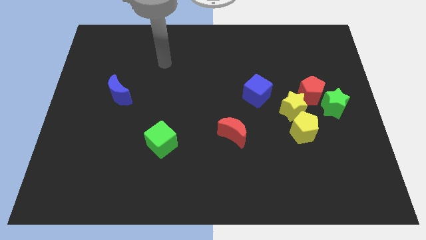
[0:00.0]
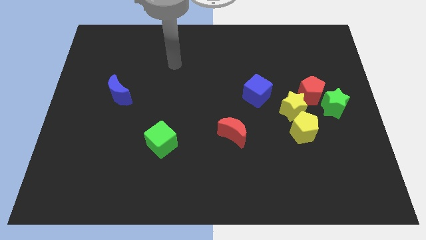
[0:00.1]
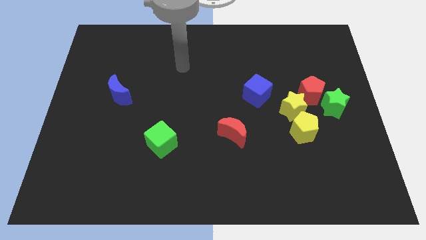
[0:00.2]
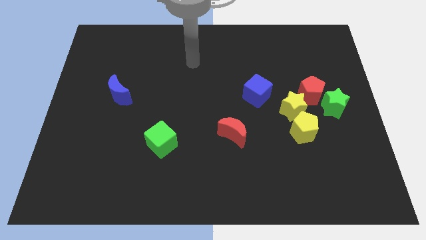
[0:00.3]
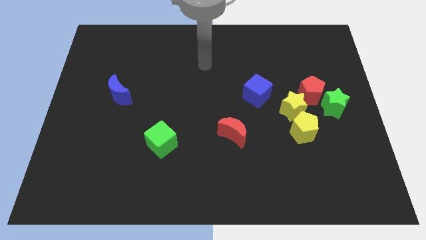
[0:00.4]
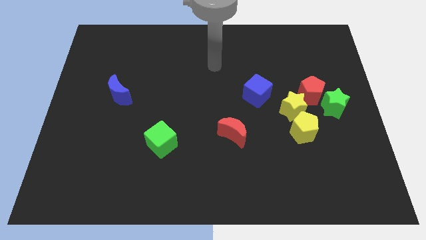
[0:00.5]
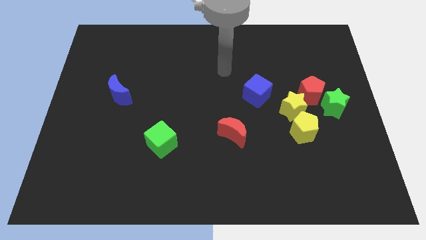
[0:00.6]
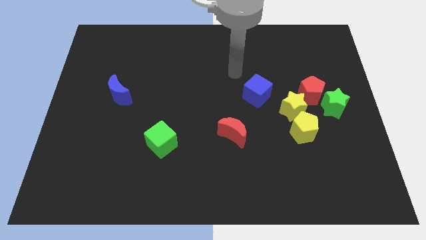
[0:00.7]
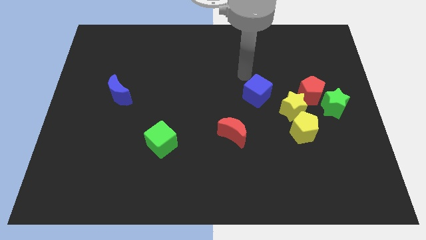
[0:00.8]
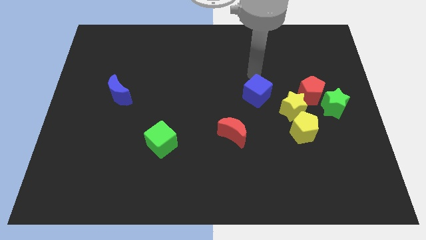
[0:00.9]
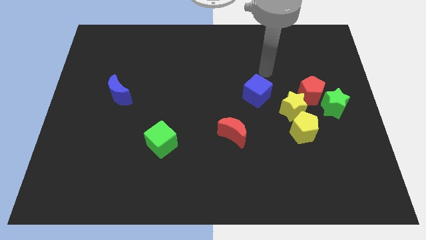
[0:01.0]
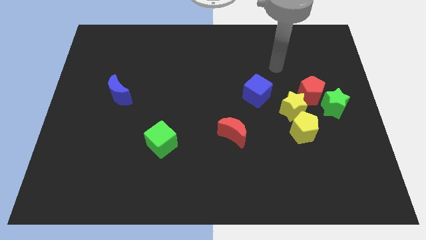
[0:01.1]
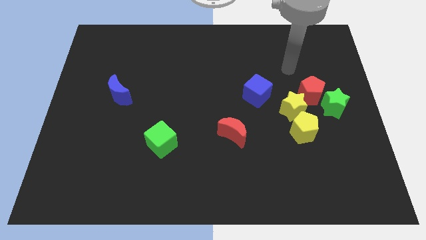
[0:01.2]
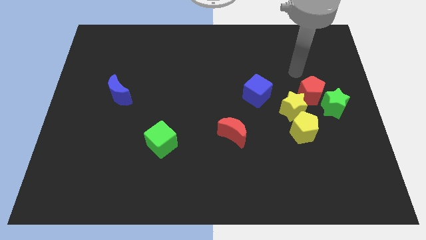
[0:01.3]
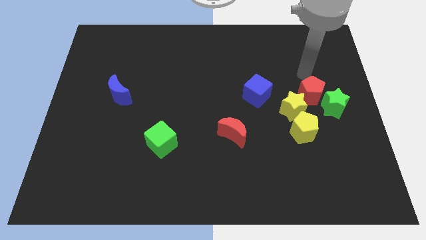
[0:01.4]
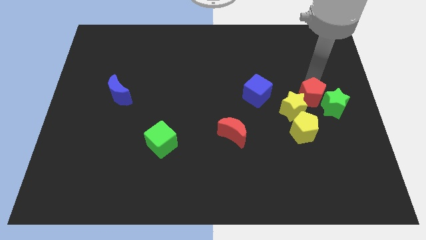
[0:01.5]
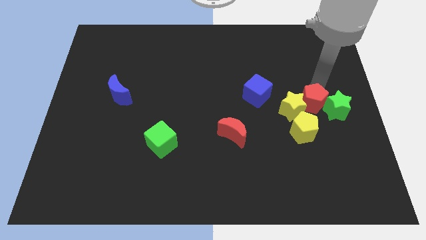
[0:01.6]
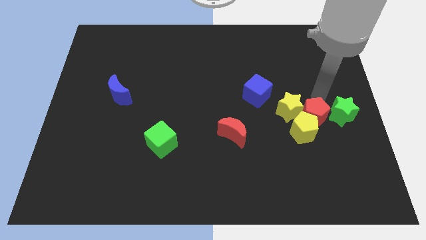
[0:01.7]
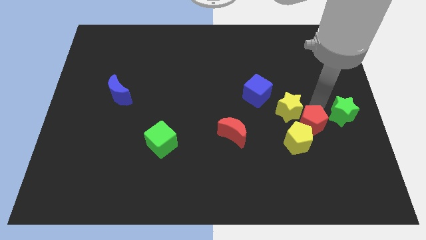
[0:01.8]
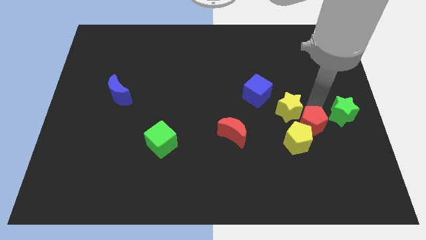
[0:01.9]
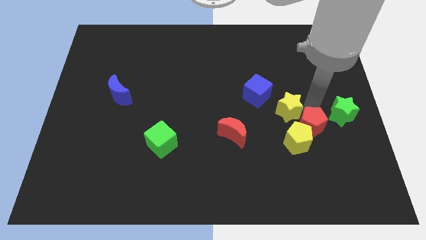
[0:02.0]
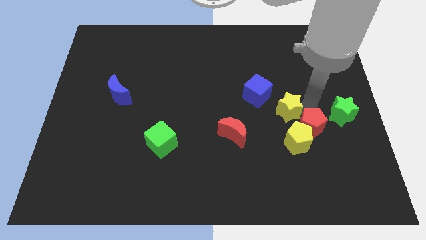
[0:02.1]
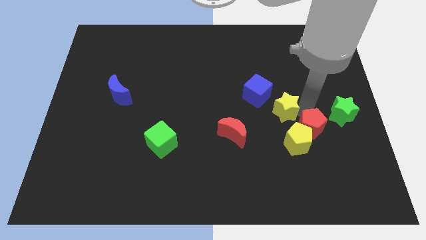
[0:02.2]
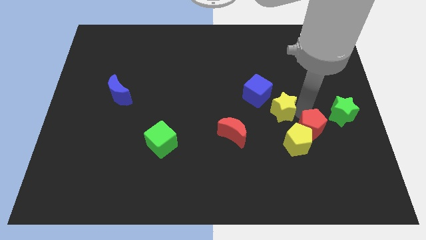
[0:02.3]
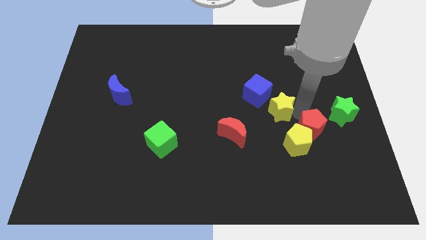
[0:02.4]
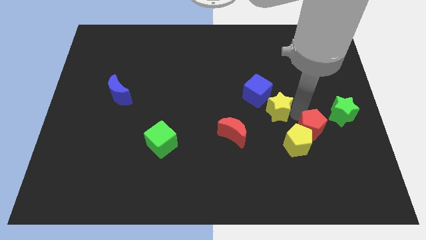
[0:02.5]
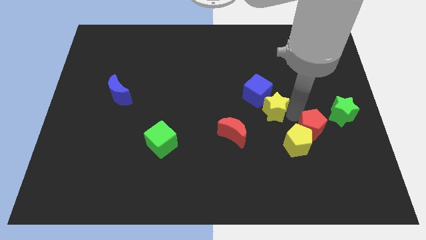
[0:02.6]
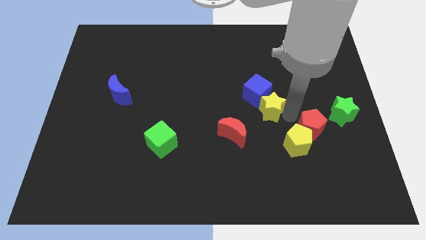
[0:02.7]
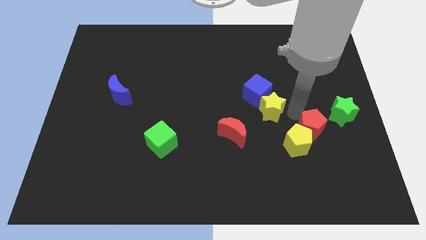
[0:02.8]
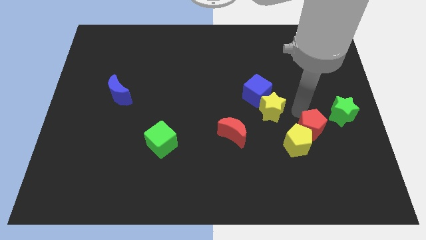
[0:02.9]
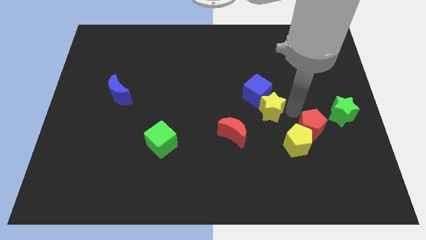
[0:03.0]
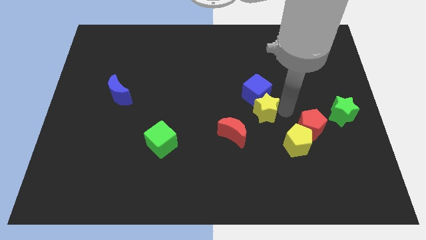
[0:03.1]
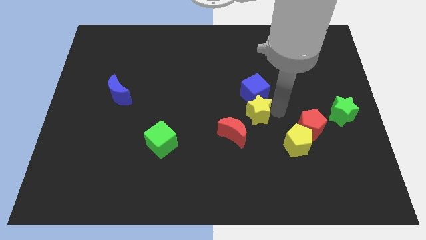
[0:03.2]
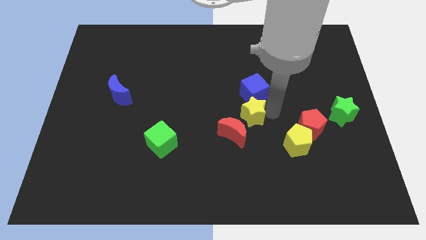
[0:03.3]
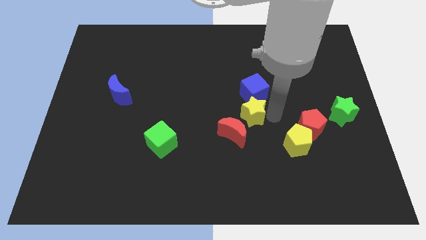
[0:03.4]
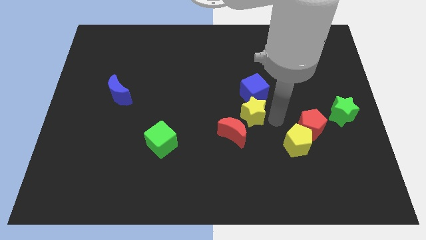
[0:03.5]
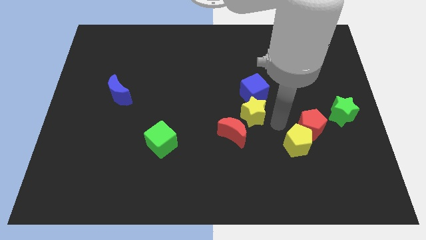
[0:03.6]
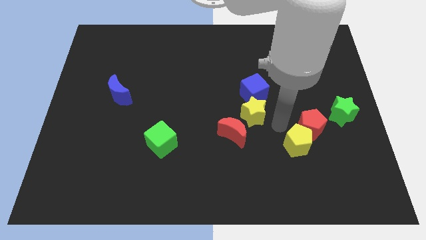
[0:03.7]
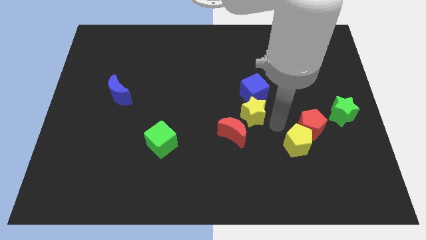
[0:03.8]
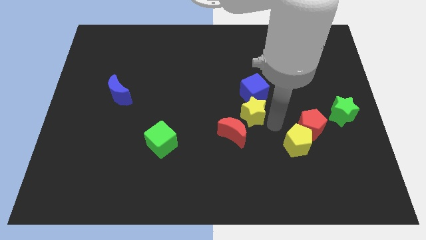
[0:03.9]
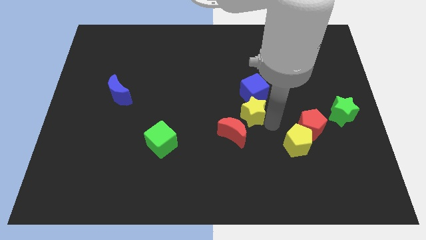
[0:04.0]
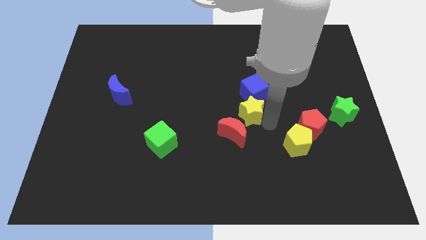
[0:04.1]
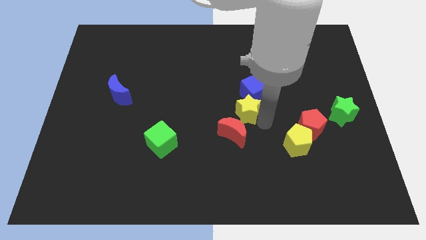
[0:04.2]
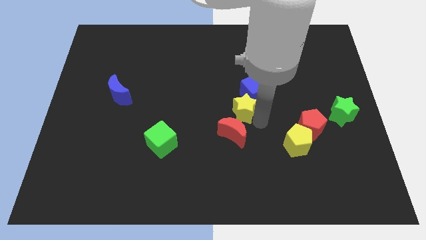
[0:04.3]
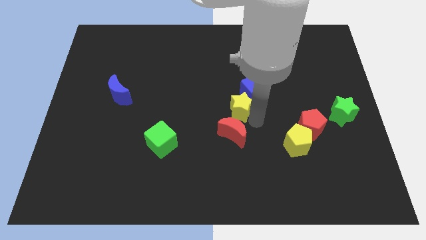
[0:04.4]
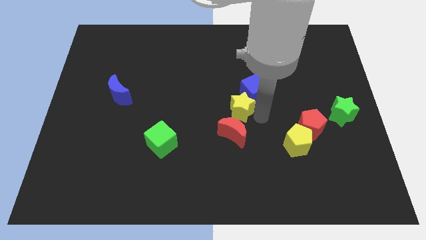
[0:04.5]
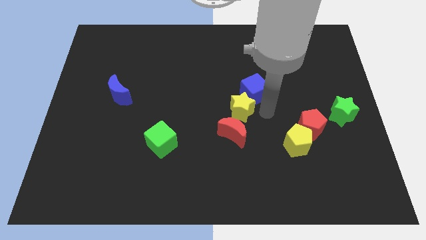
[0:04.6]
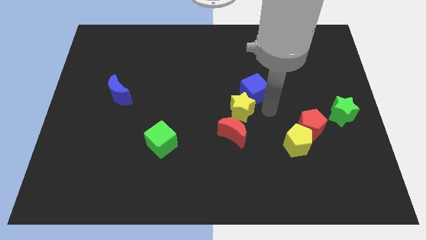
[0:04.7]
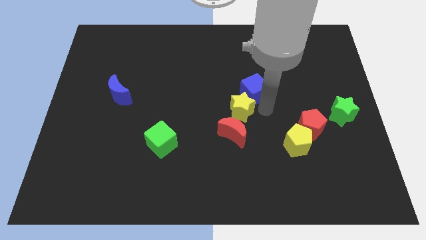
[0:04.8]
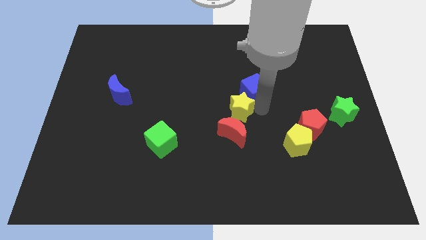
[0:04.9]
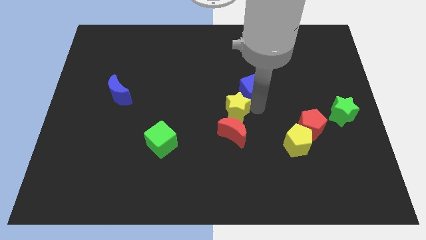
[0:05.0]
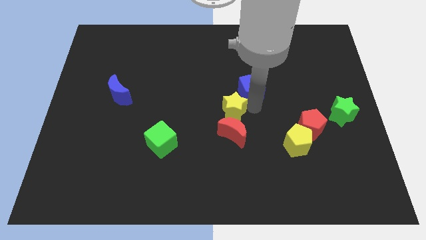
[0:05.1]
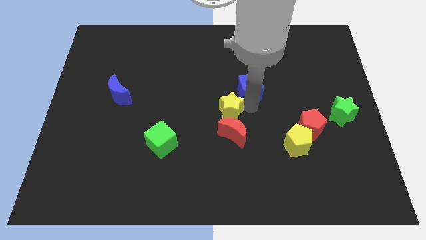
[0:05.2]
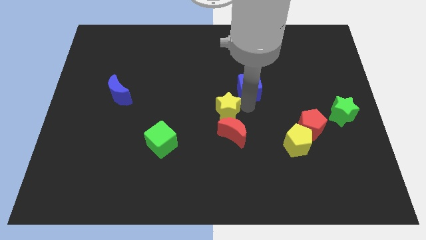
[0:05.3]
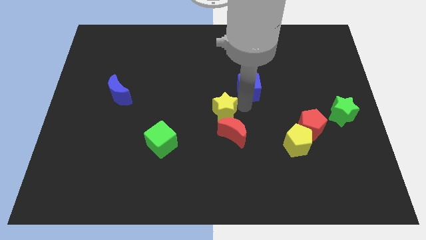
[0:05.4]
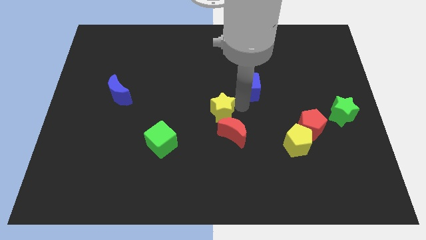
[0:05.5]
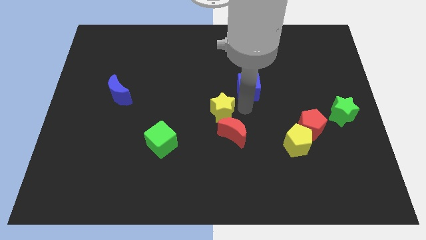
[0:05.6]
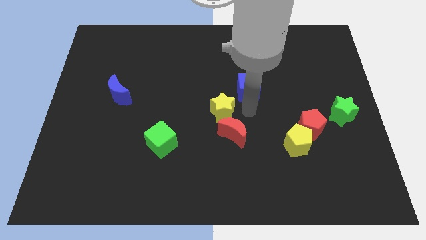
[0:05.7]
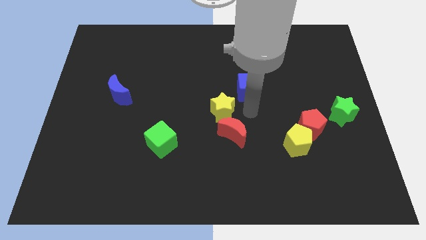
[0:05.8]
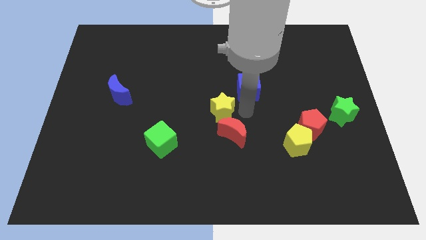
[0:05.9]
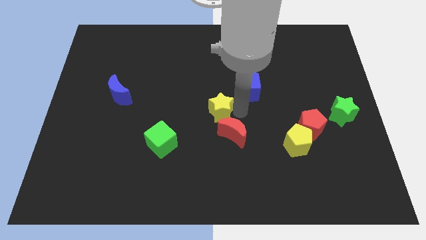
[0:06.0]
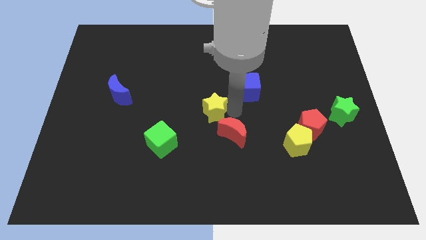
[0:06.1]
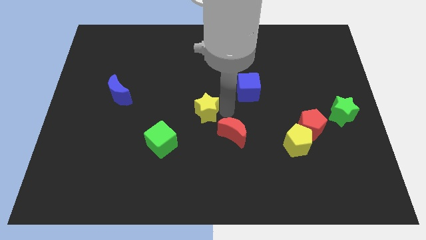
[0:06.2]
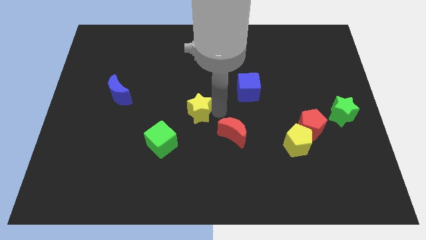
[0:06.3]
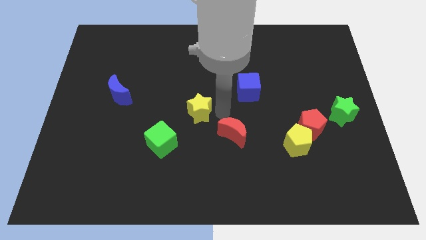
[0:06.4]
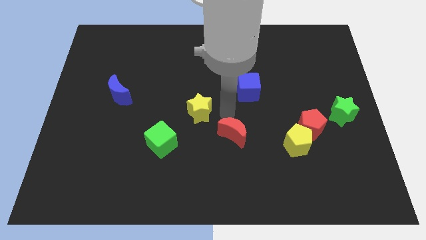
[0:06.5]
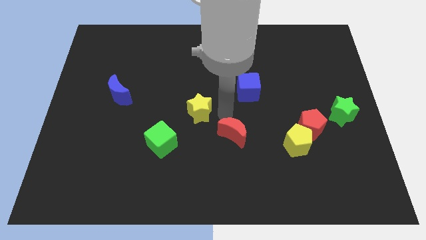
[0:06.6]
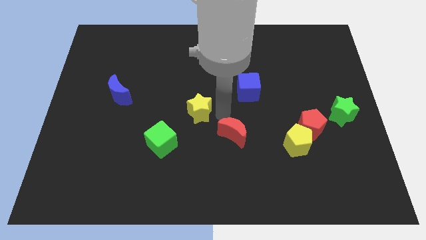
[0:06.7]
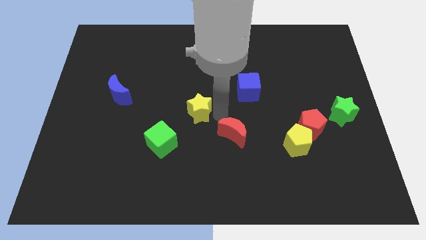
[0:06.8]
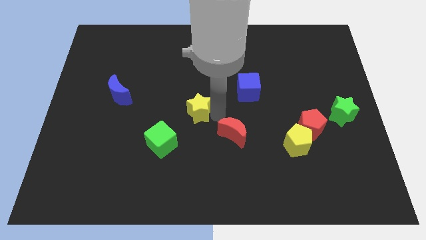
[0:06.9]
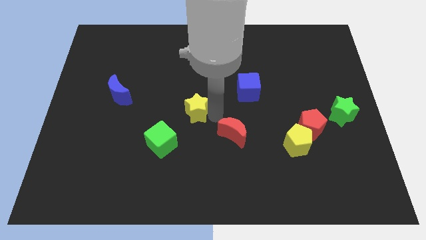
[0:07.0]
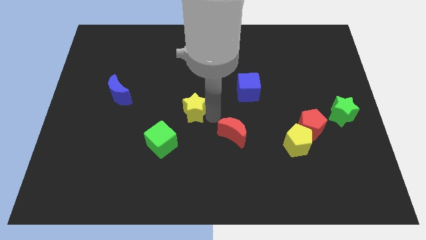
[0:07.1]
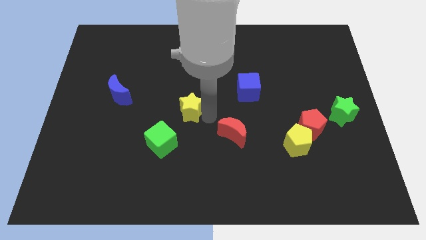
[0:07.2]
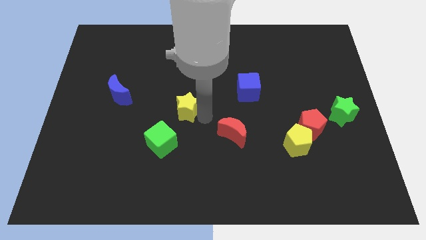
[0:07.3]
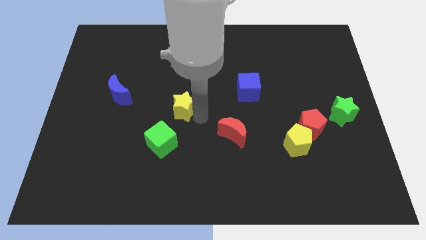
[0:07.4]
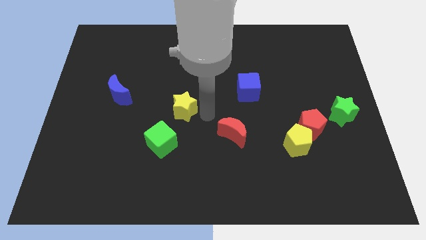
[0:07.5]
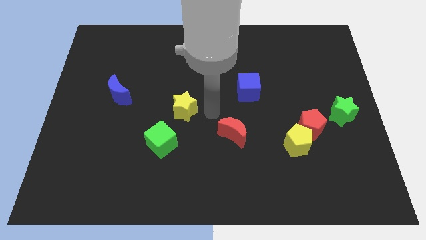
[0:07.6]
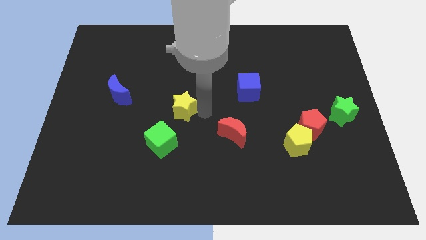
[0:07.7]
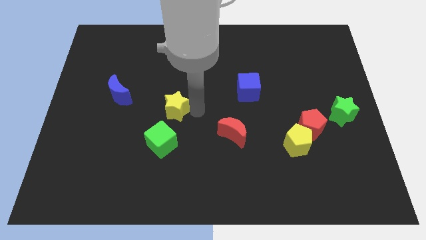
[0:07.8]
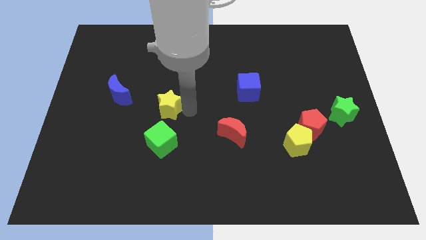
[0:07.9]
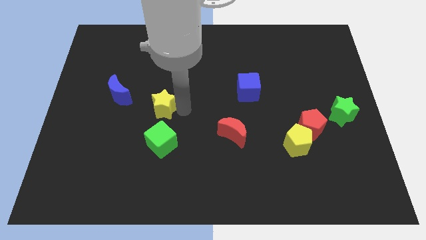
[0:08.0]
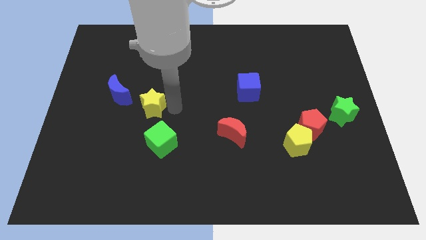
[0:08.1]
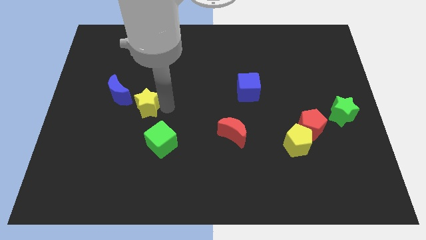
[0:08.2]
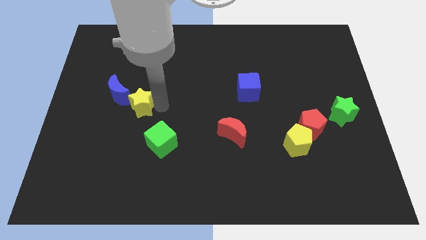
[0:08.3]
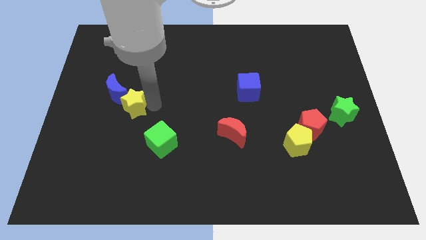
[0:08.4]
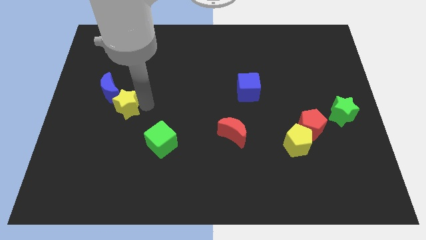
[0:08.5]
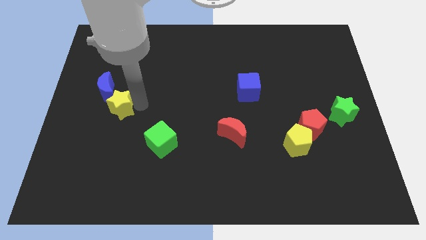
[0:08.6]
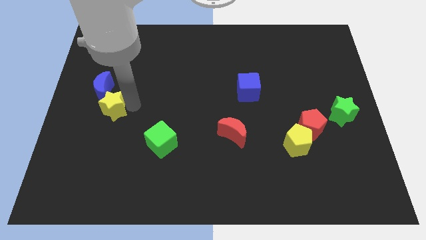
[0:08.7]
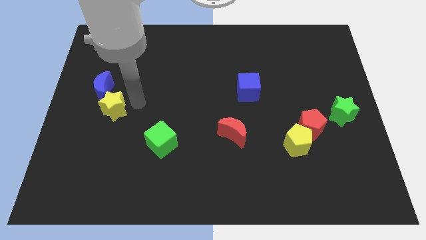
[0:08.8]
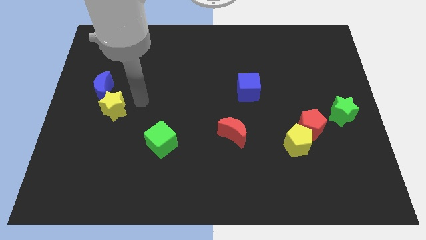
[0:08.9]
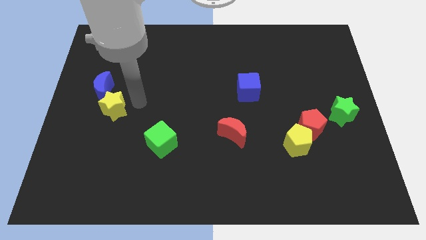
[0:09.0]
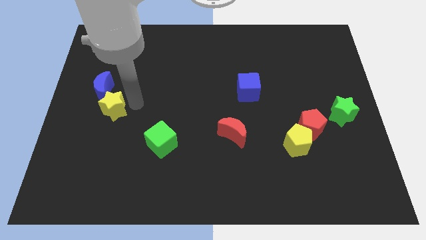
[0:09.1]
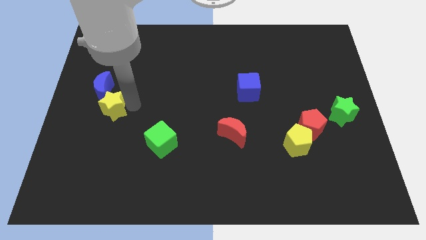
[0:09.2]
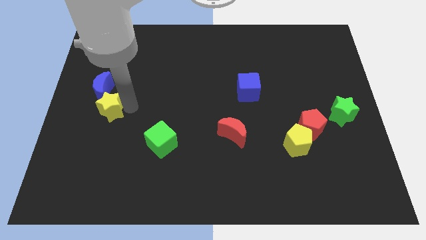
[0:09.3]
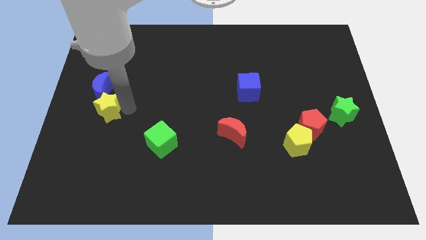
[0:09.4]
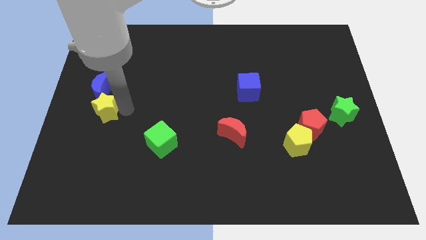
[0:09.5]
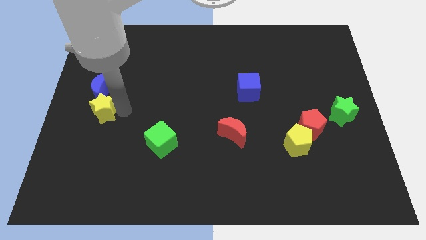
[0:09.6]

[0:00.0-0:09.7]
slide the yellow star to the left side
